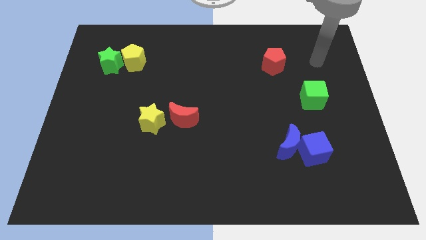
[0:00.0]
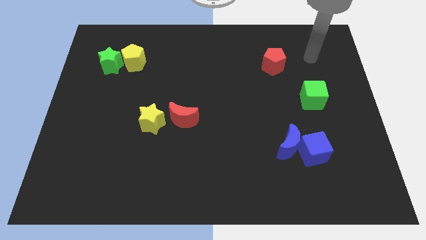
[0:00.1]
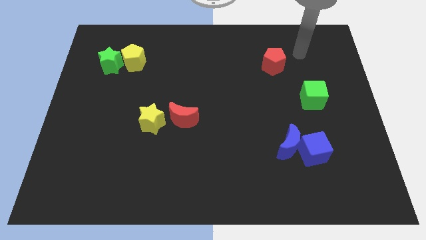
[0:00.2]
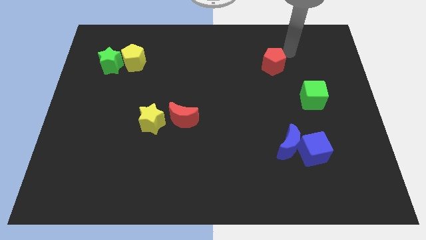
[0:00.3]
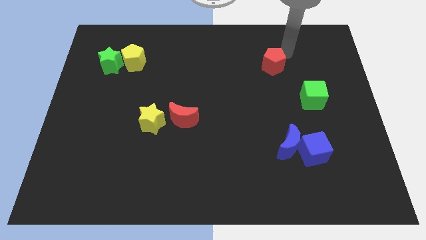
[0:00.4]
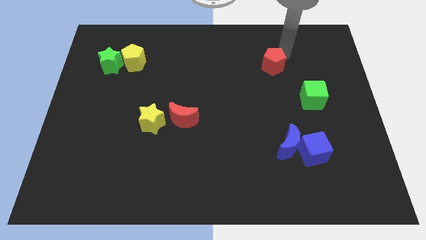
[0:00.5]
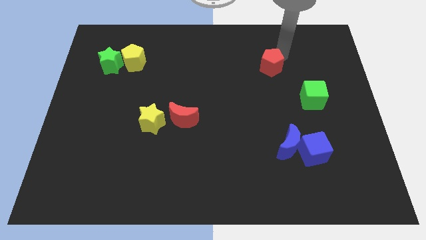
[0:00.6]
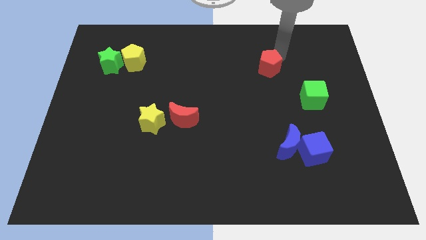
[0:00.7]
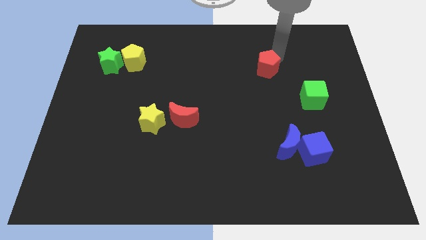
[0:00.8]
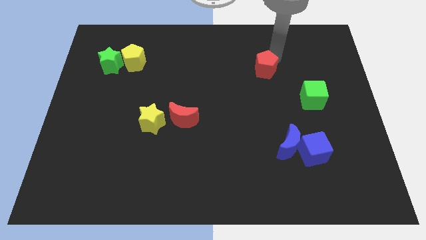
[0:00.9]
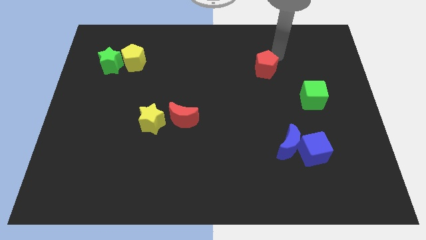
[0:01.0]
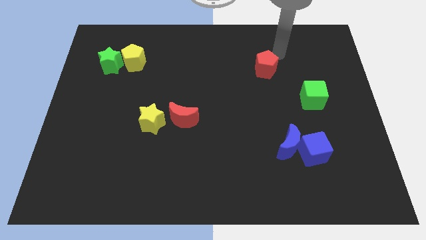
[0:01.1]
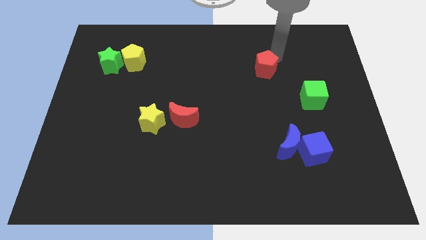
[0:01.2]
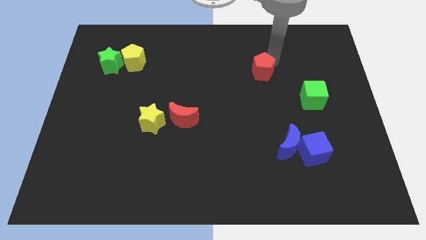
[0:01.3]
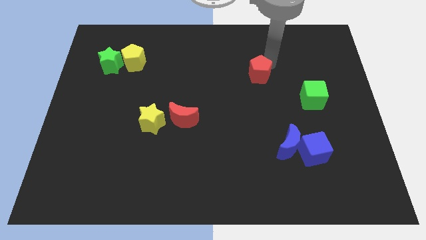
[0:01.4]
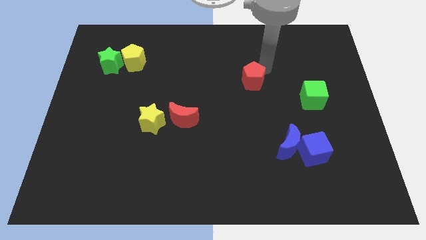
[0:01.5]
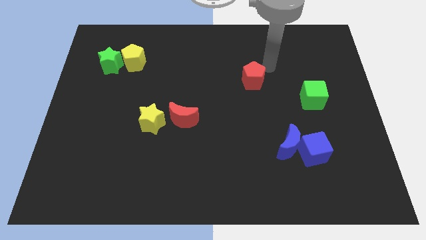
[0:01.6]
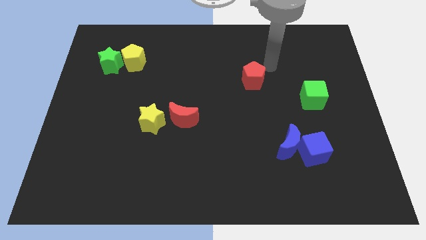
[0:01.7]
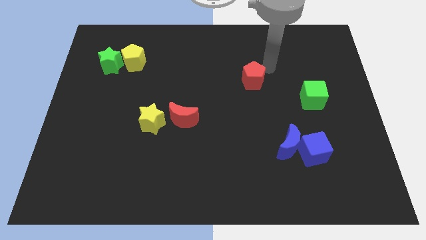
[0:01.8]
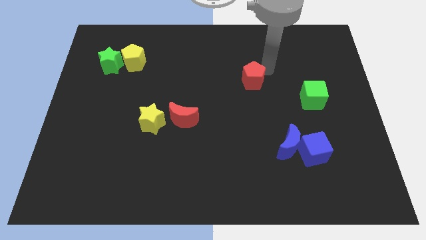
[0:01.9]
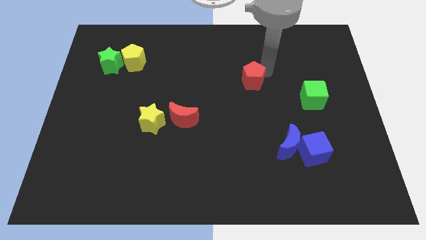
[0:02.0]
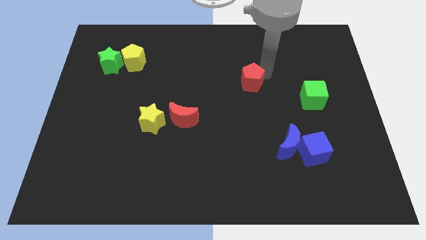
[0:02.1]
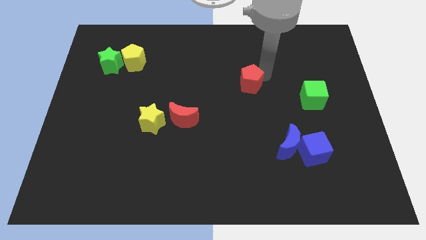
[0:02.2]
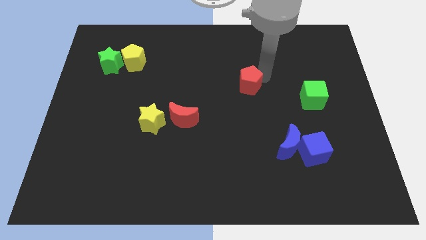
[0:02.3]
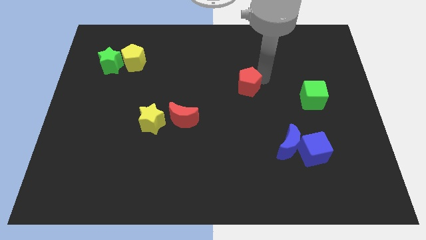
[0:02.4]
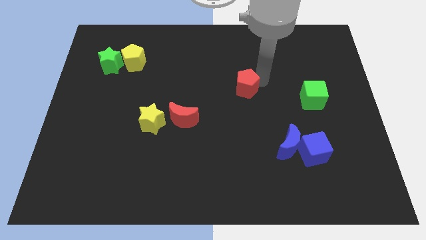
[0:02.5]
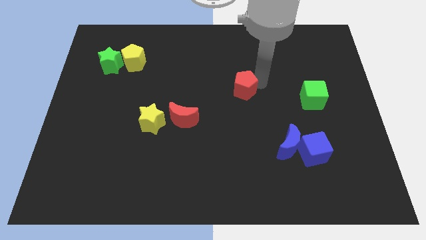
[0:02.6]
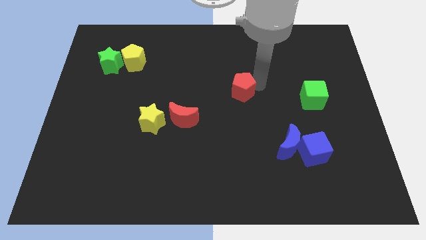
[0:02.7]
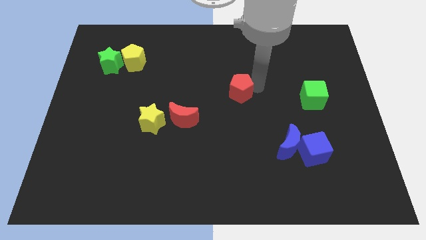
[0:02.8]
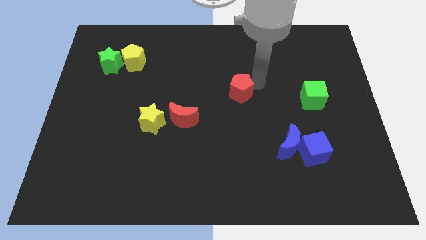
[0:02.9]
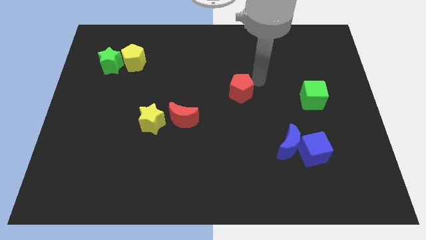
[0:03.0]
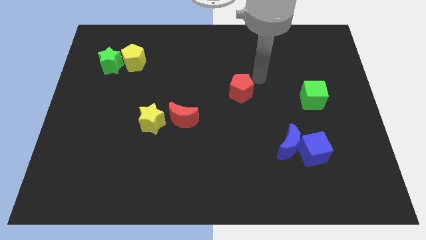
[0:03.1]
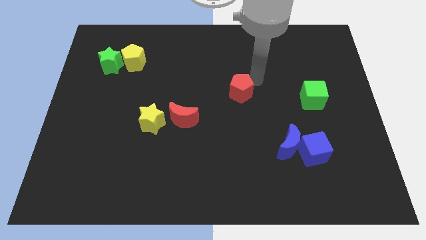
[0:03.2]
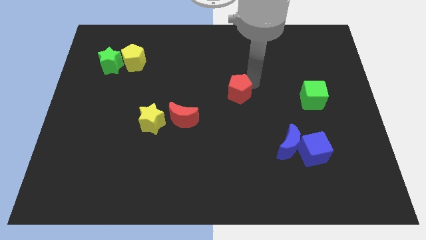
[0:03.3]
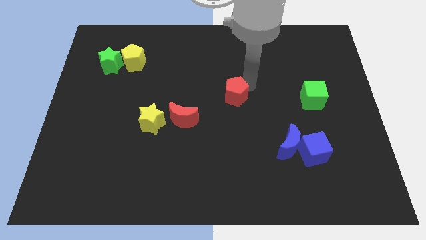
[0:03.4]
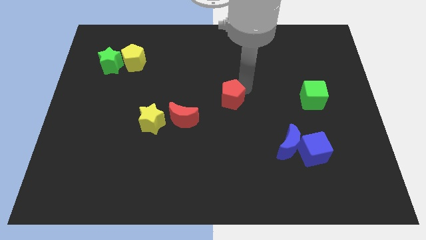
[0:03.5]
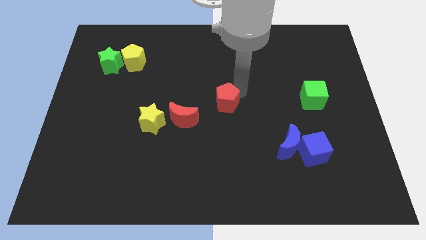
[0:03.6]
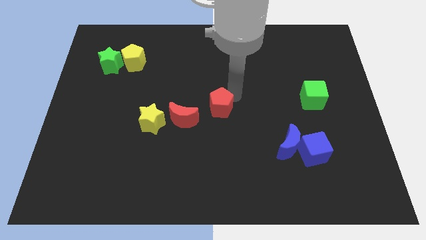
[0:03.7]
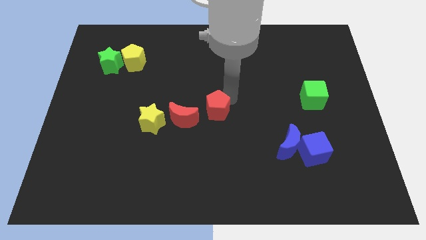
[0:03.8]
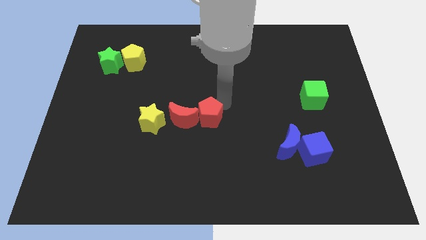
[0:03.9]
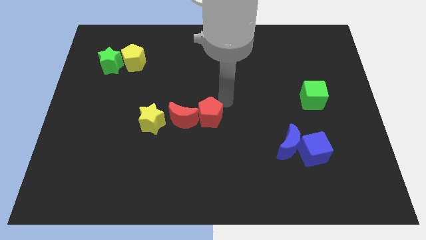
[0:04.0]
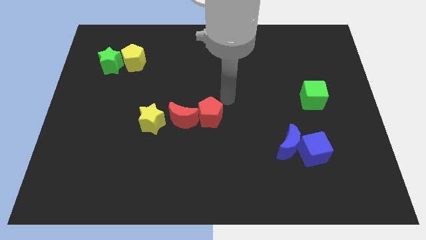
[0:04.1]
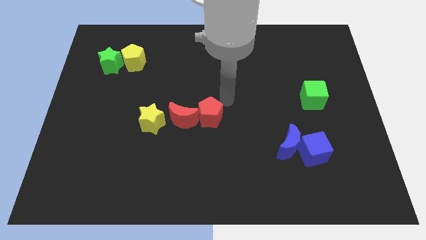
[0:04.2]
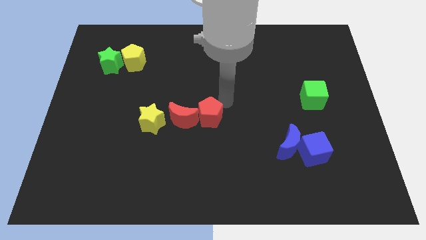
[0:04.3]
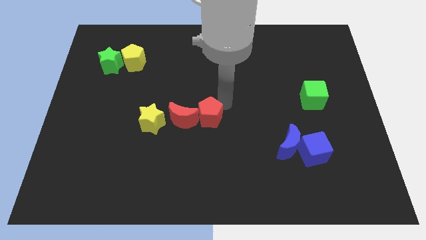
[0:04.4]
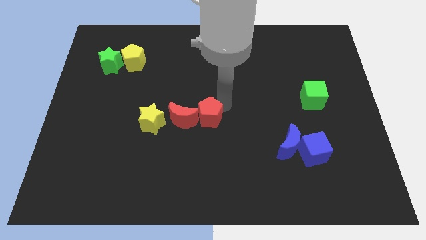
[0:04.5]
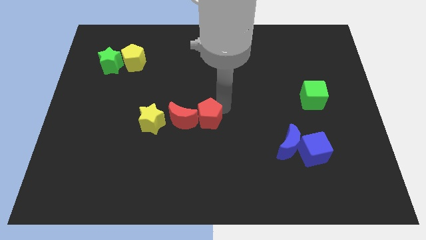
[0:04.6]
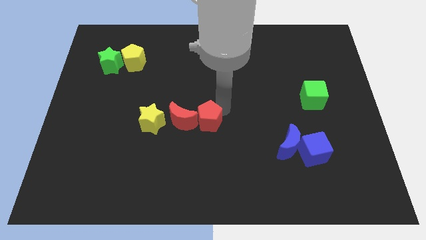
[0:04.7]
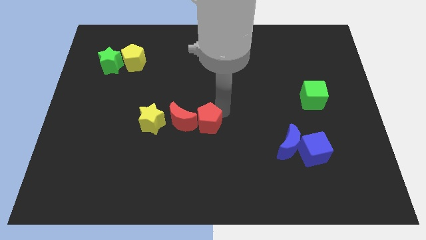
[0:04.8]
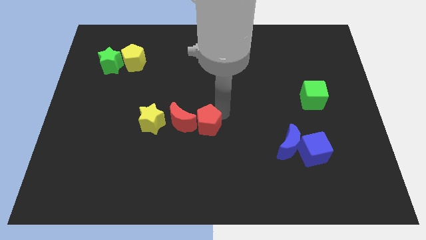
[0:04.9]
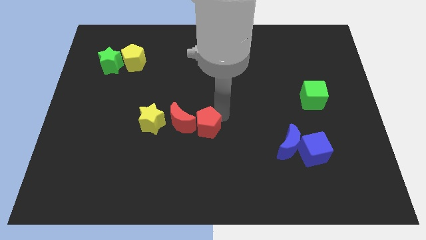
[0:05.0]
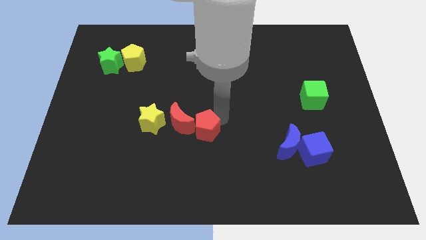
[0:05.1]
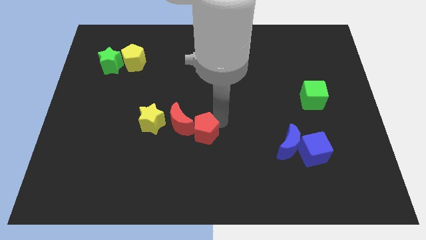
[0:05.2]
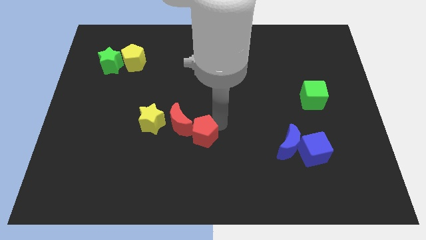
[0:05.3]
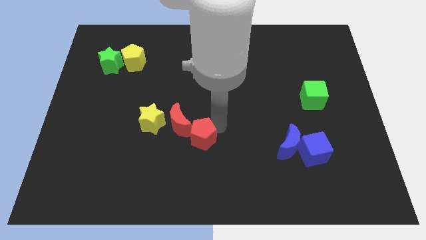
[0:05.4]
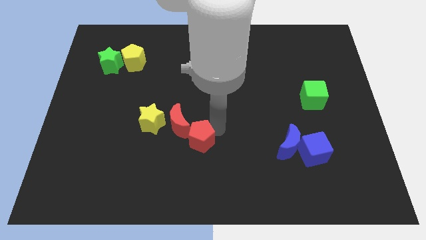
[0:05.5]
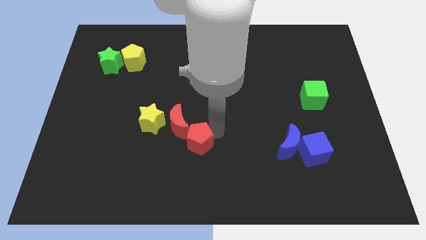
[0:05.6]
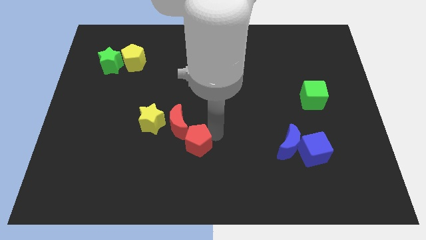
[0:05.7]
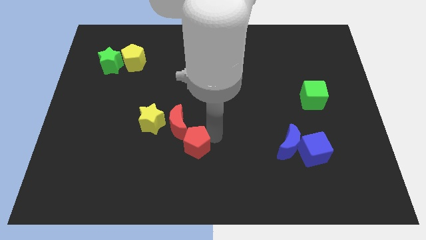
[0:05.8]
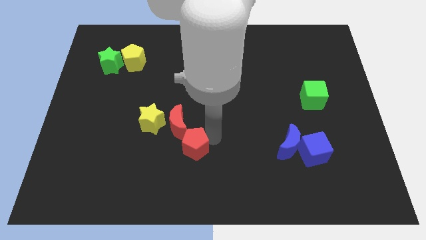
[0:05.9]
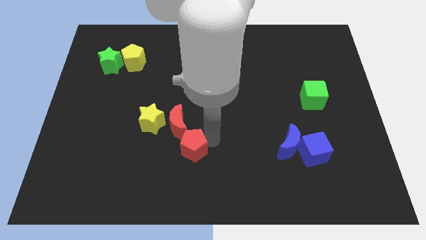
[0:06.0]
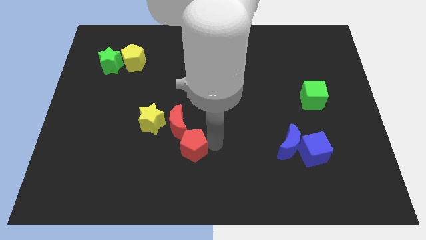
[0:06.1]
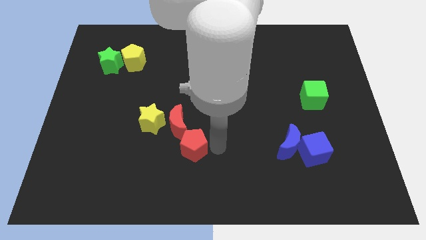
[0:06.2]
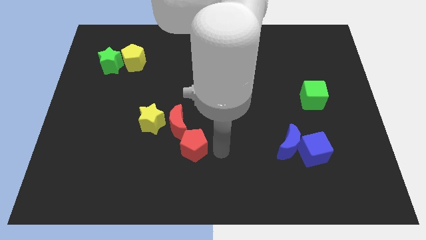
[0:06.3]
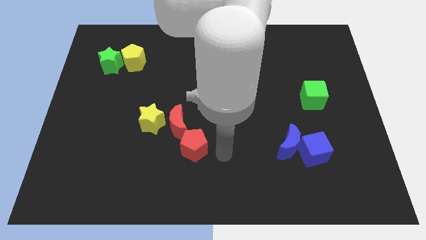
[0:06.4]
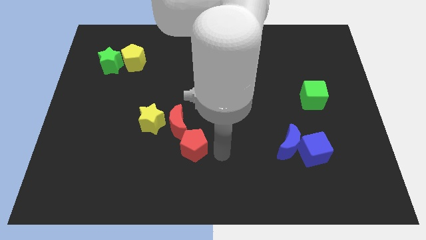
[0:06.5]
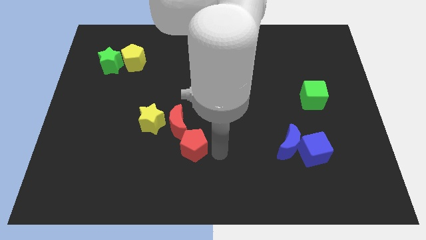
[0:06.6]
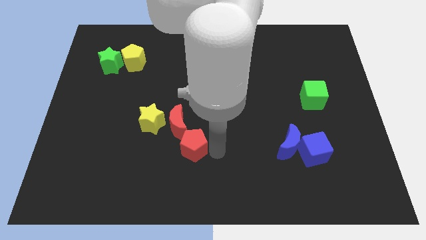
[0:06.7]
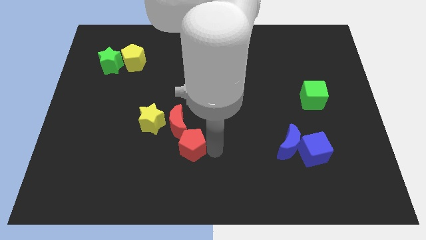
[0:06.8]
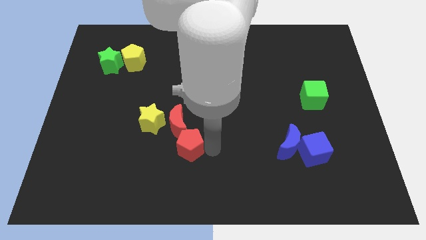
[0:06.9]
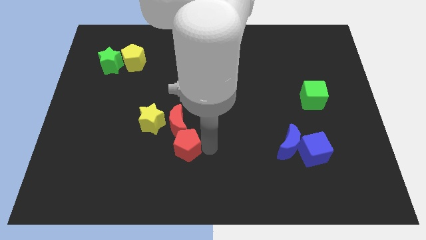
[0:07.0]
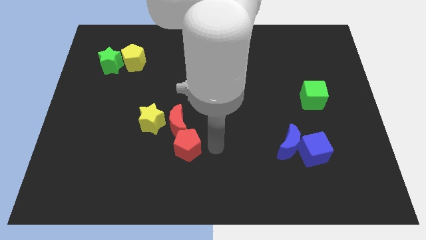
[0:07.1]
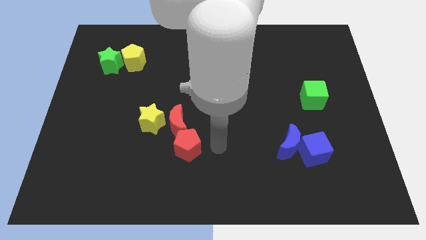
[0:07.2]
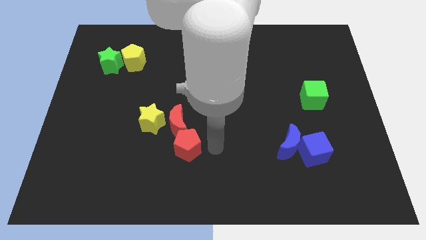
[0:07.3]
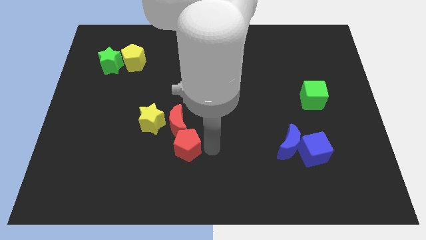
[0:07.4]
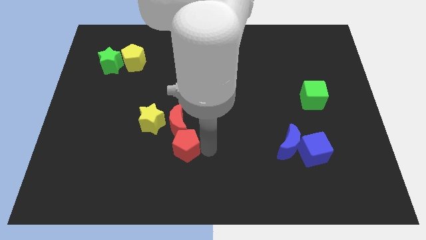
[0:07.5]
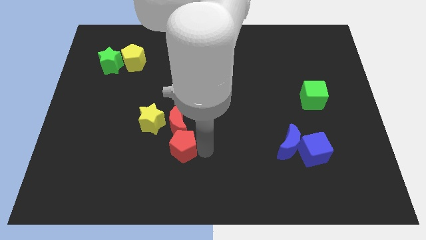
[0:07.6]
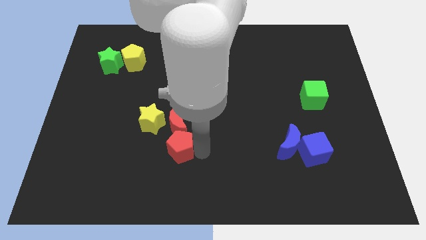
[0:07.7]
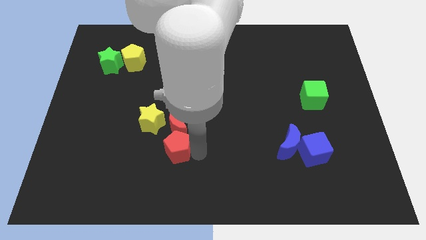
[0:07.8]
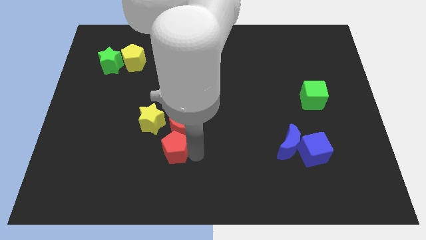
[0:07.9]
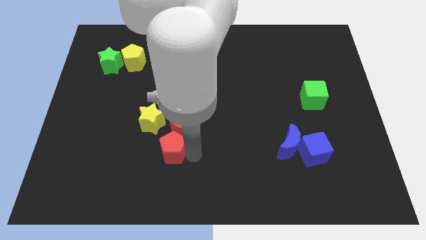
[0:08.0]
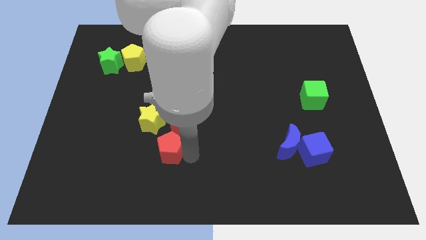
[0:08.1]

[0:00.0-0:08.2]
slide the red pentagon to the bottom of the yellow star
